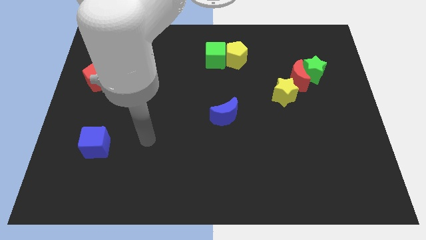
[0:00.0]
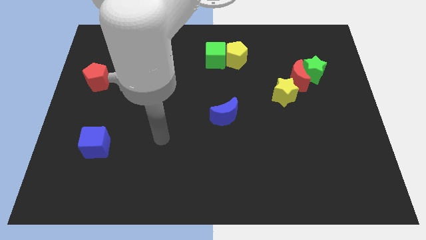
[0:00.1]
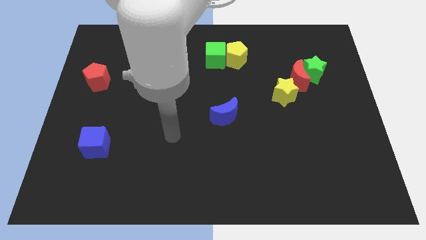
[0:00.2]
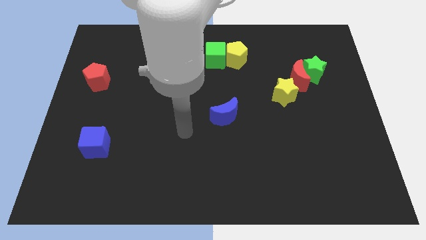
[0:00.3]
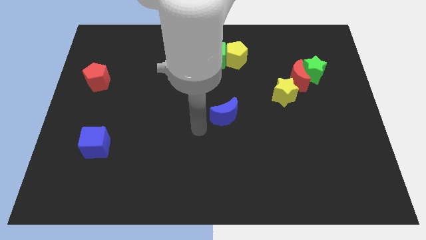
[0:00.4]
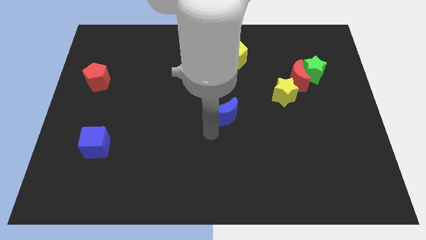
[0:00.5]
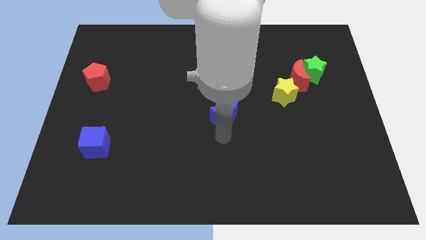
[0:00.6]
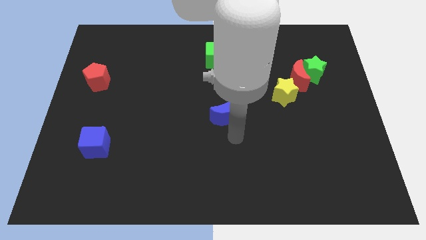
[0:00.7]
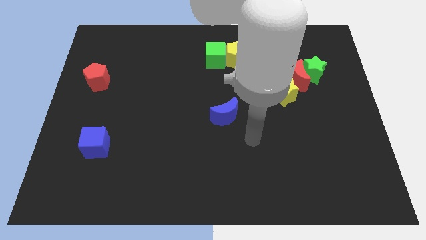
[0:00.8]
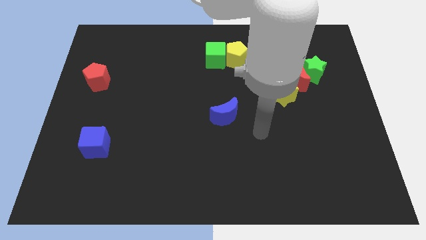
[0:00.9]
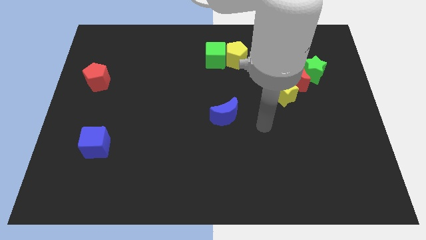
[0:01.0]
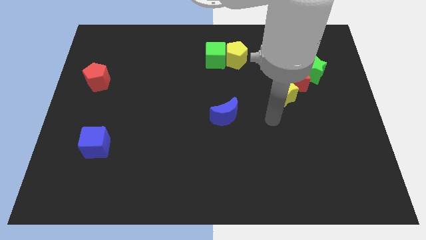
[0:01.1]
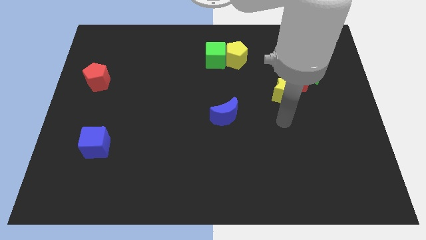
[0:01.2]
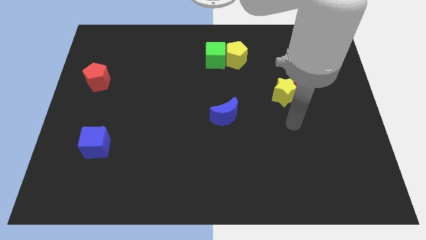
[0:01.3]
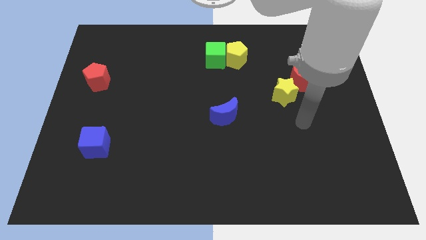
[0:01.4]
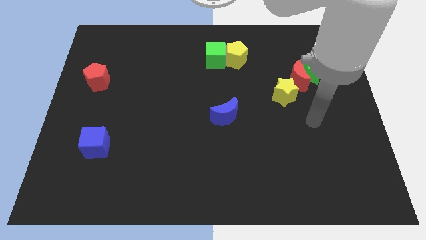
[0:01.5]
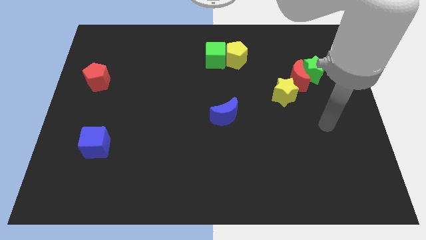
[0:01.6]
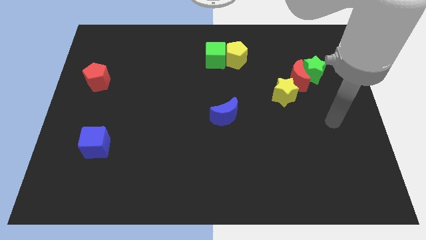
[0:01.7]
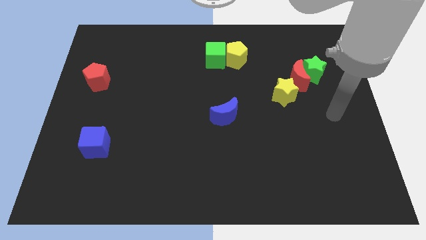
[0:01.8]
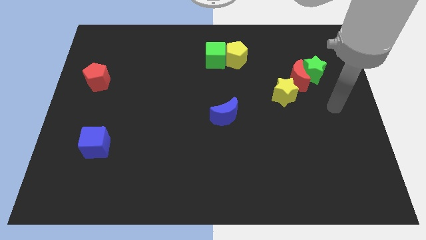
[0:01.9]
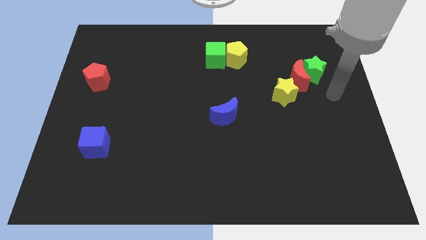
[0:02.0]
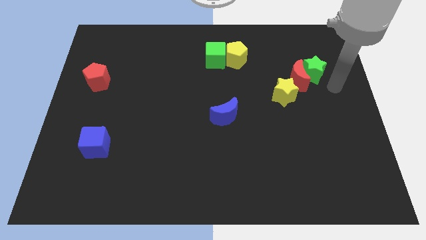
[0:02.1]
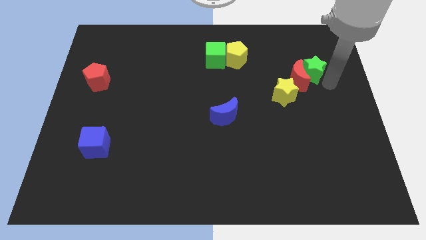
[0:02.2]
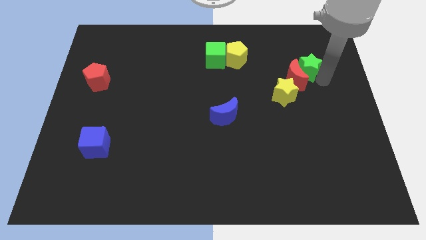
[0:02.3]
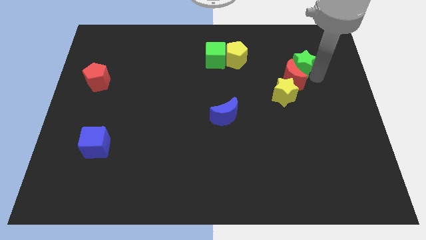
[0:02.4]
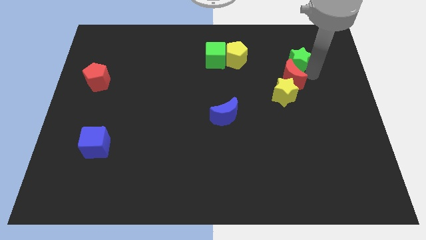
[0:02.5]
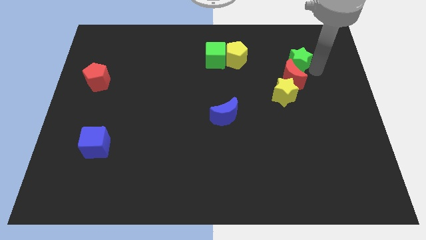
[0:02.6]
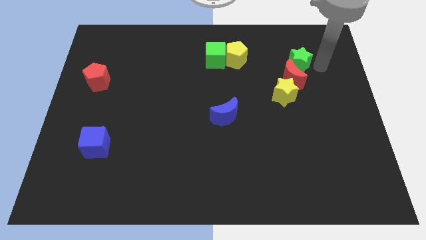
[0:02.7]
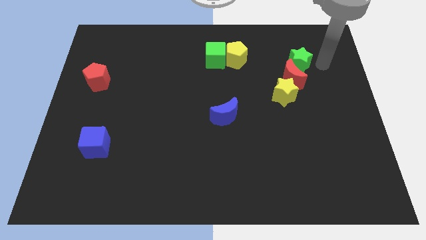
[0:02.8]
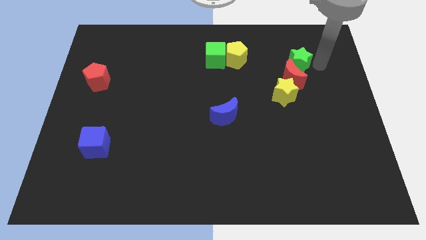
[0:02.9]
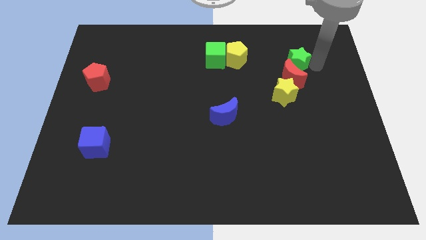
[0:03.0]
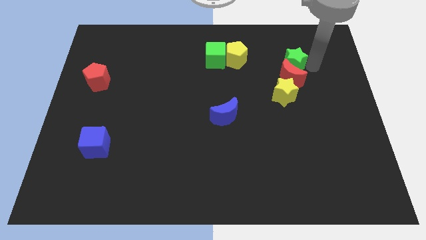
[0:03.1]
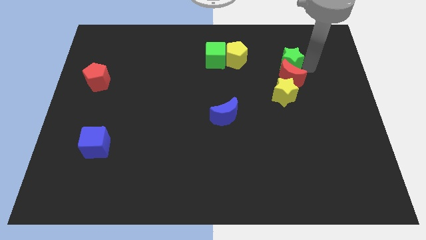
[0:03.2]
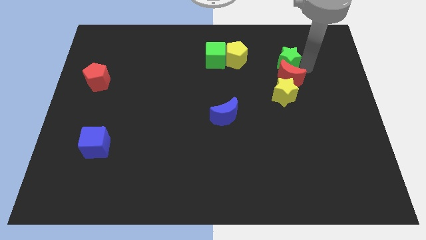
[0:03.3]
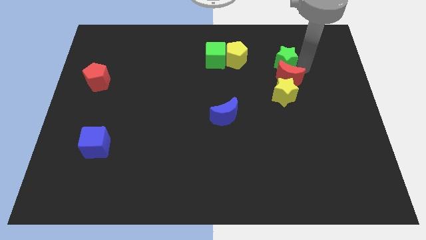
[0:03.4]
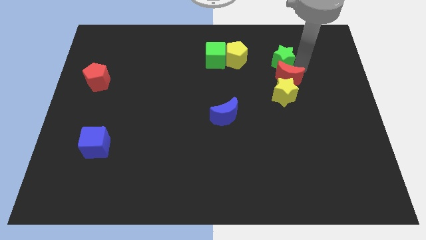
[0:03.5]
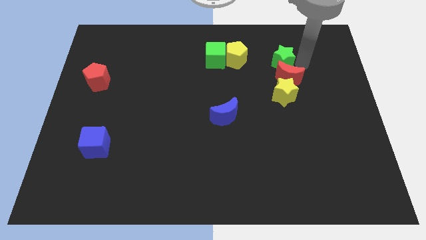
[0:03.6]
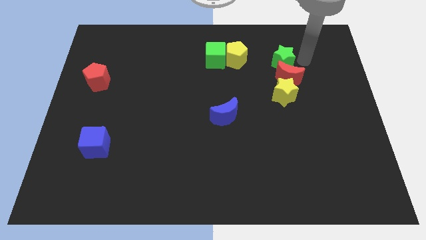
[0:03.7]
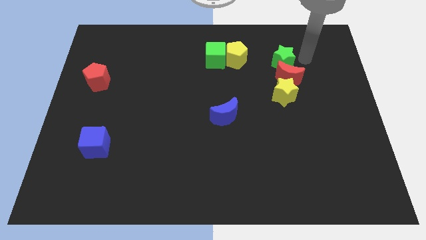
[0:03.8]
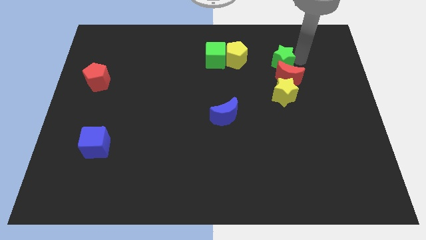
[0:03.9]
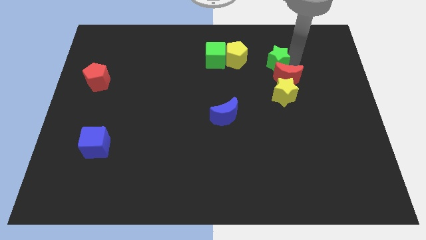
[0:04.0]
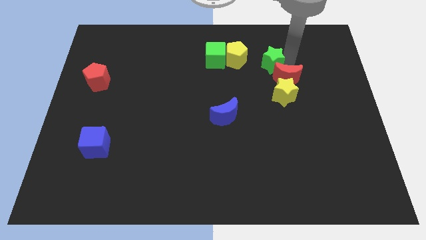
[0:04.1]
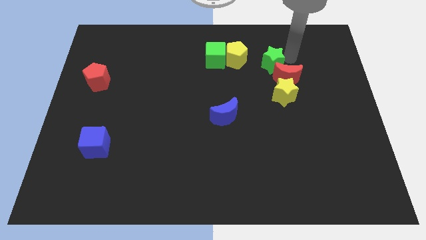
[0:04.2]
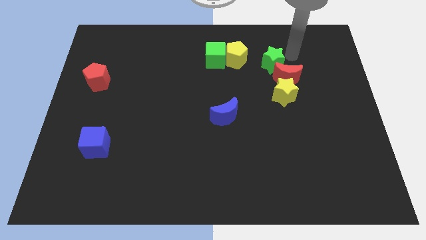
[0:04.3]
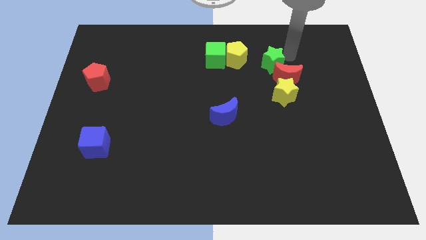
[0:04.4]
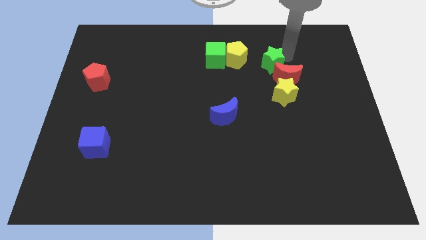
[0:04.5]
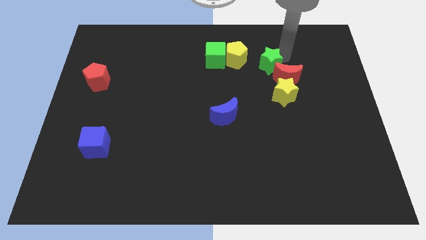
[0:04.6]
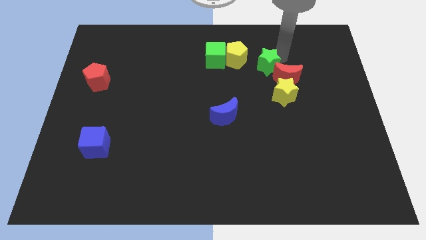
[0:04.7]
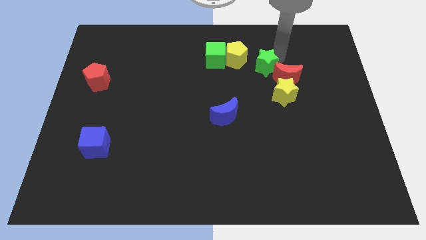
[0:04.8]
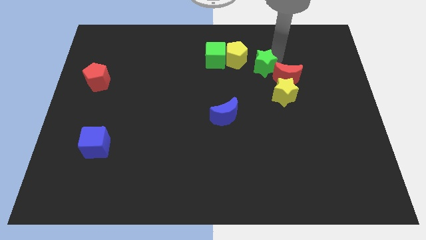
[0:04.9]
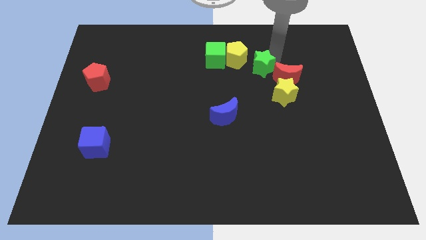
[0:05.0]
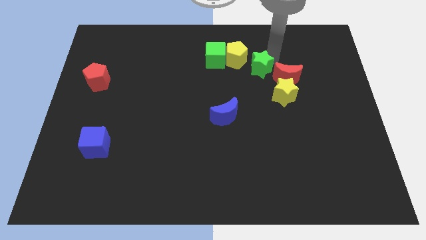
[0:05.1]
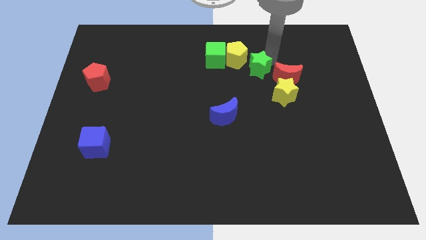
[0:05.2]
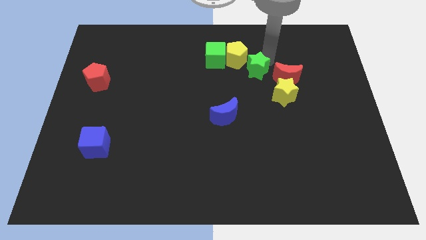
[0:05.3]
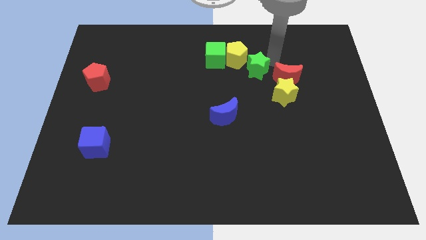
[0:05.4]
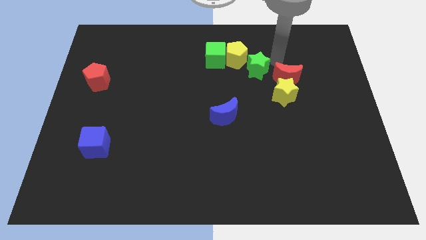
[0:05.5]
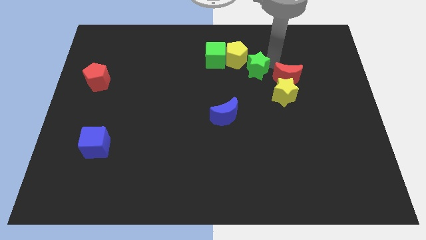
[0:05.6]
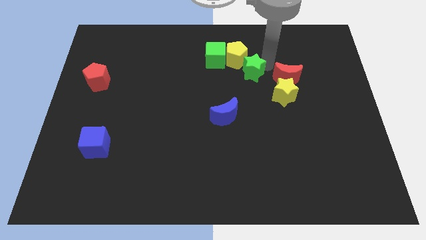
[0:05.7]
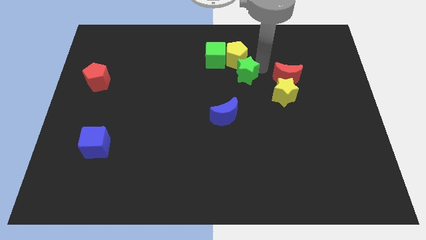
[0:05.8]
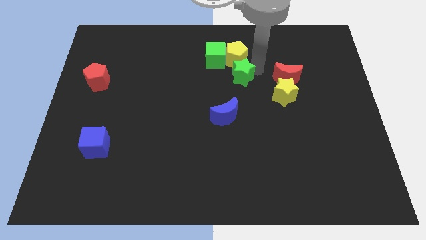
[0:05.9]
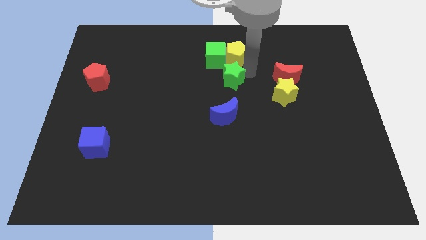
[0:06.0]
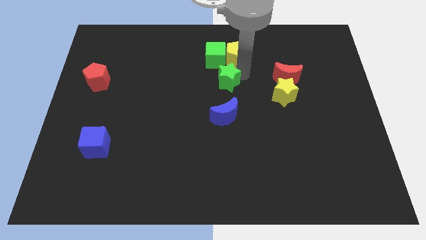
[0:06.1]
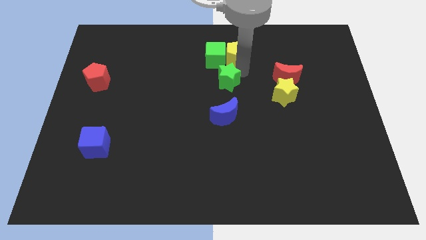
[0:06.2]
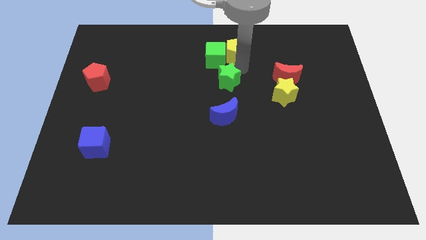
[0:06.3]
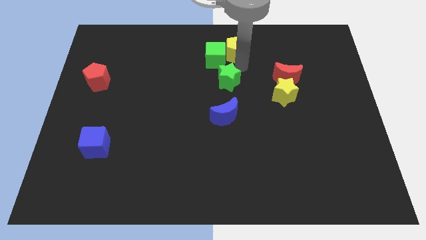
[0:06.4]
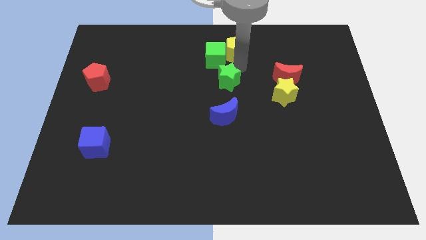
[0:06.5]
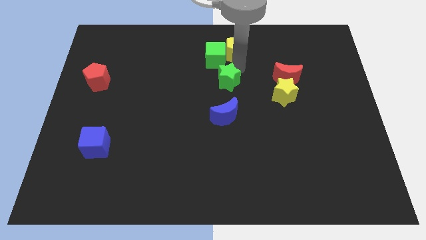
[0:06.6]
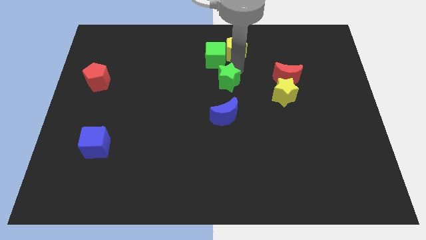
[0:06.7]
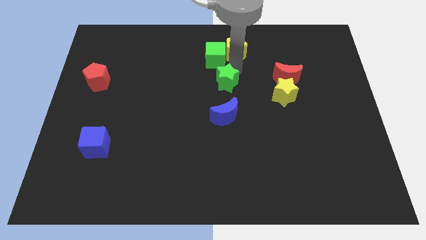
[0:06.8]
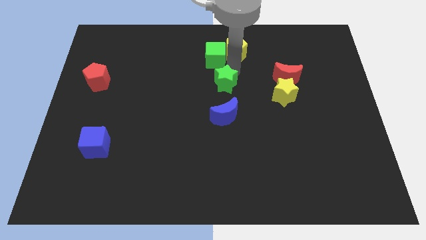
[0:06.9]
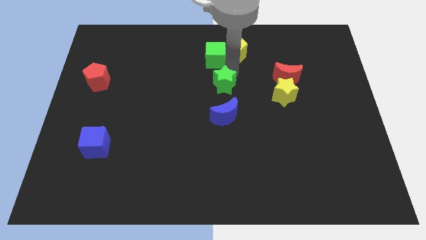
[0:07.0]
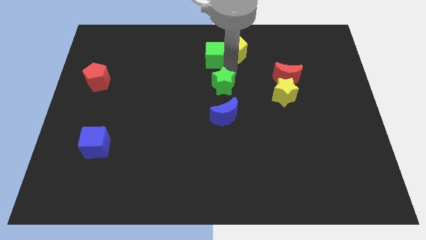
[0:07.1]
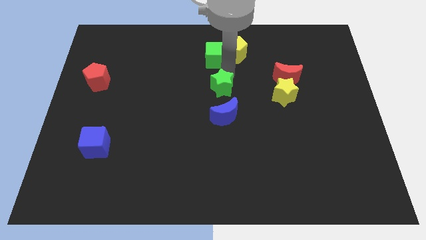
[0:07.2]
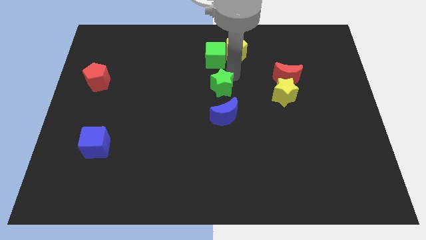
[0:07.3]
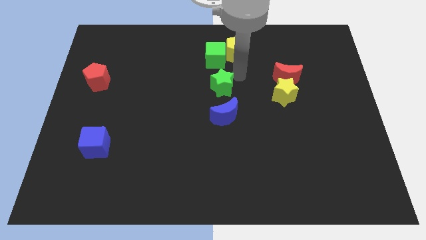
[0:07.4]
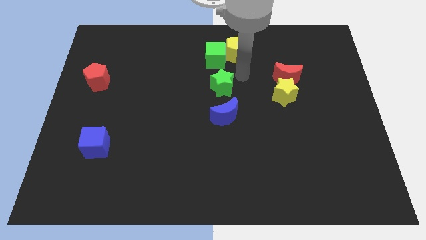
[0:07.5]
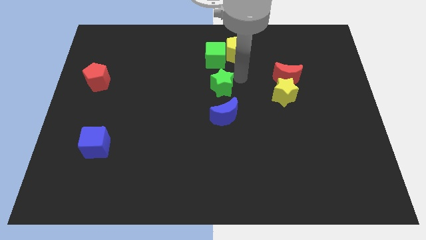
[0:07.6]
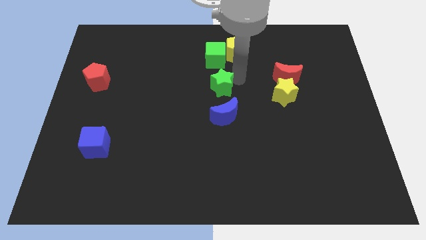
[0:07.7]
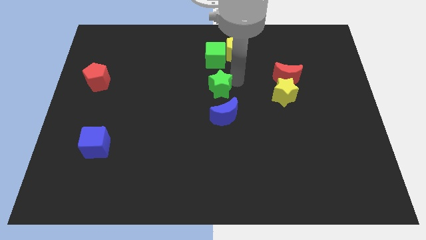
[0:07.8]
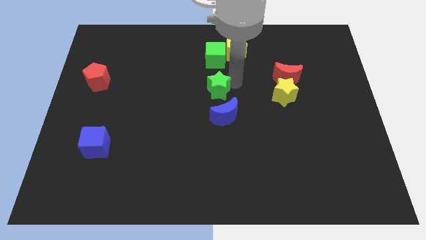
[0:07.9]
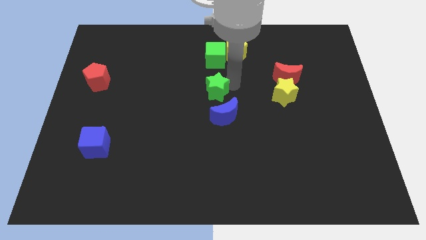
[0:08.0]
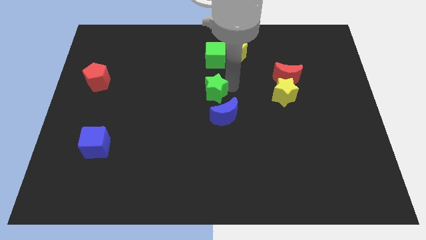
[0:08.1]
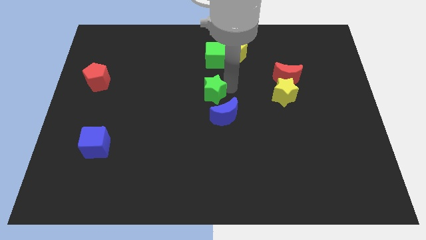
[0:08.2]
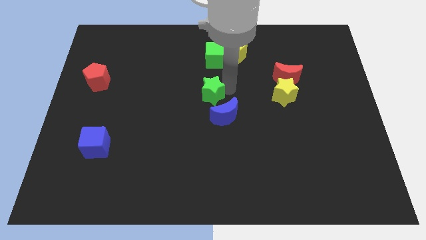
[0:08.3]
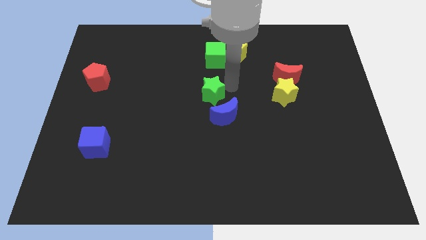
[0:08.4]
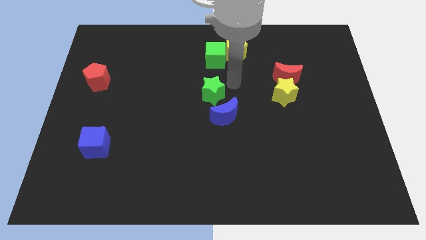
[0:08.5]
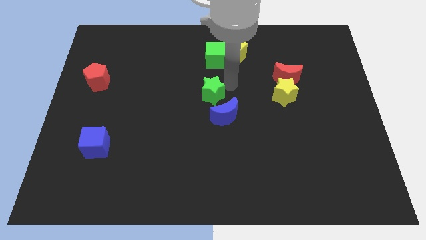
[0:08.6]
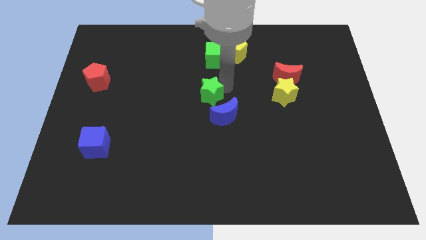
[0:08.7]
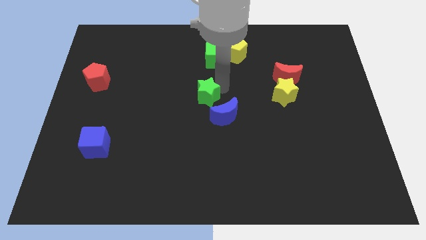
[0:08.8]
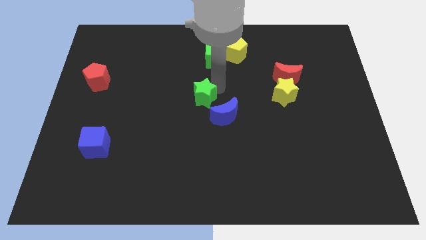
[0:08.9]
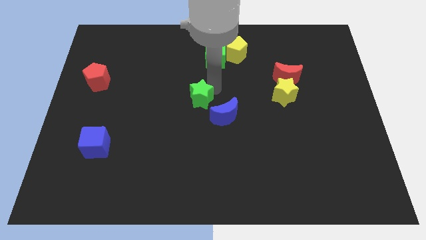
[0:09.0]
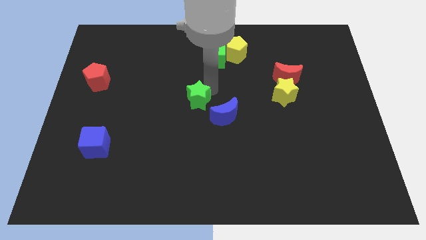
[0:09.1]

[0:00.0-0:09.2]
slide the green star left of the blue moon
